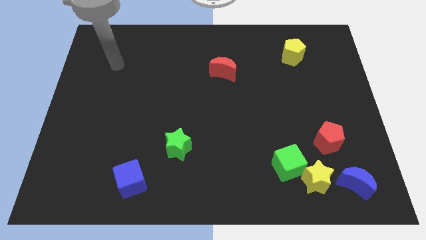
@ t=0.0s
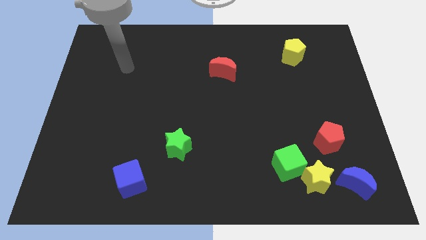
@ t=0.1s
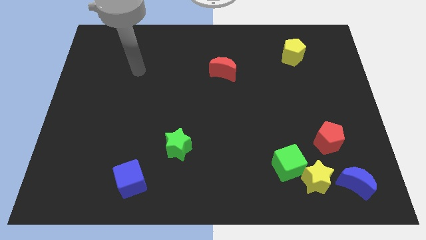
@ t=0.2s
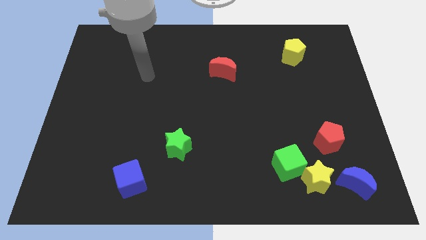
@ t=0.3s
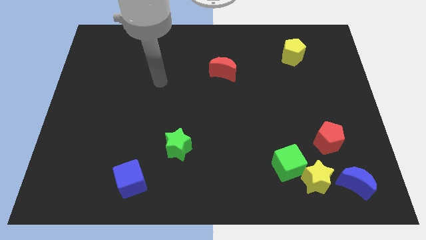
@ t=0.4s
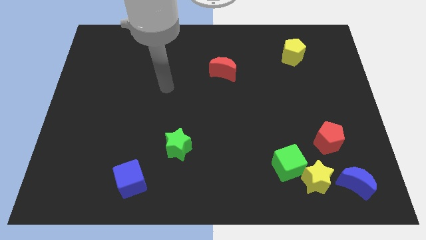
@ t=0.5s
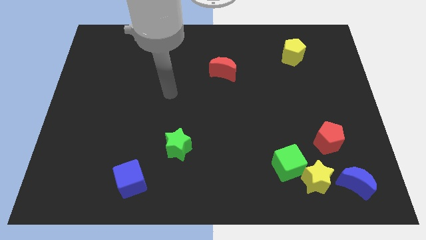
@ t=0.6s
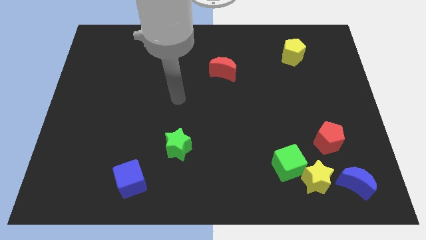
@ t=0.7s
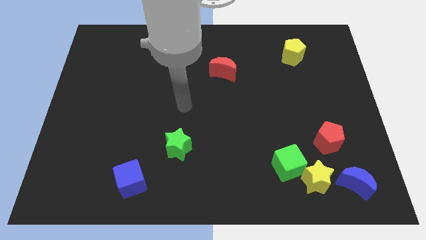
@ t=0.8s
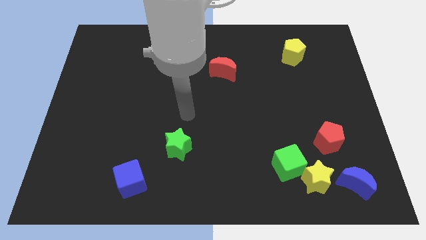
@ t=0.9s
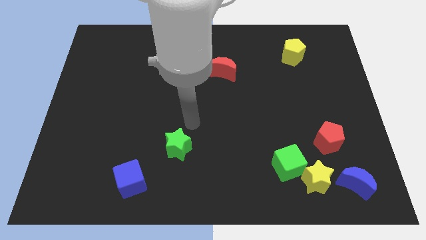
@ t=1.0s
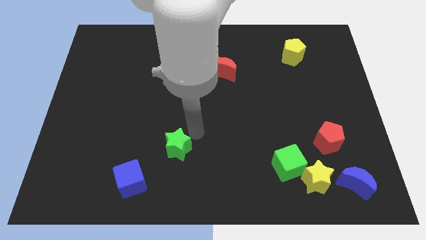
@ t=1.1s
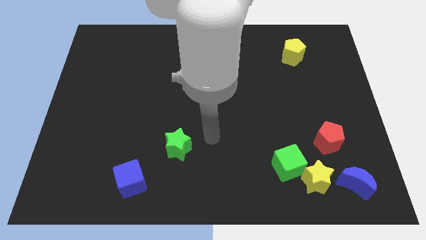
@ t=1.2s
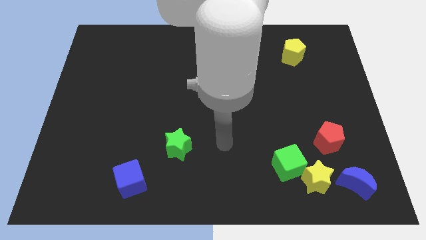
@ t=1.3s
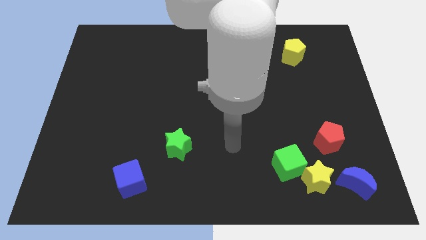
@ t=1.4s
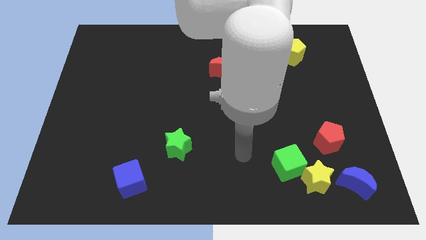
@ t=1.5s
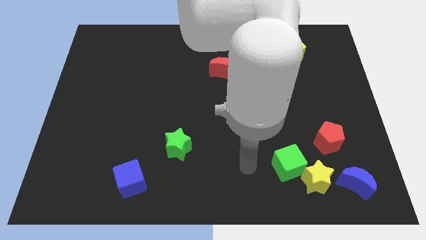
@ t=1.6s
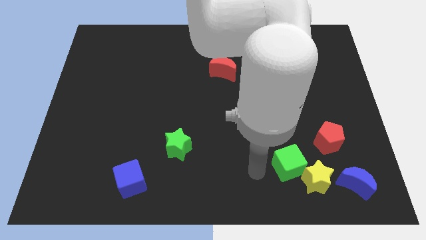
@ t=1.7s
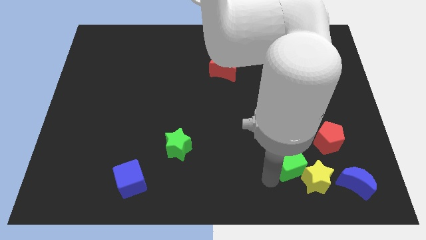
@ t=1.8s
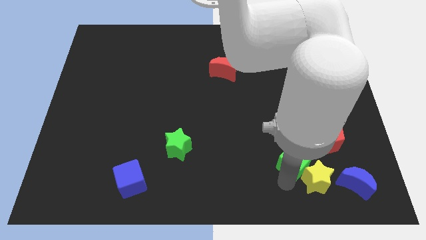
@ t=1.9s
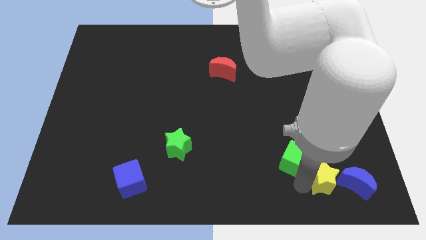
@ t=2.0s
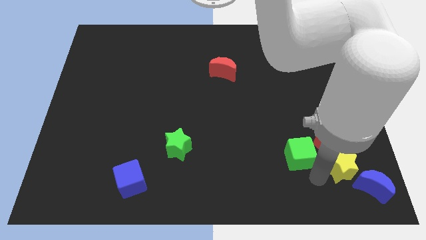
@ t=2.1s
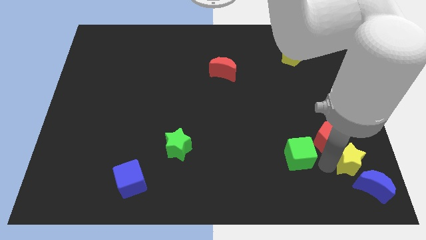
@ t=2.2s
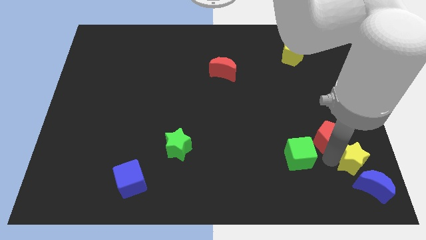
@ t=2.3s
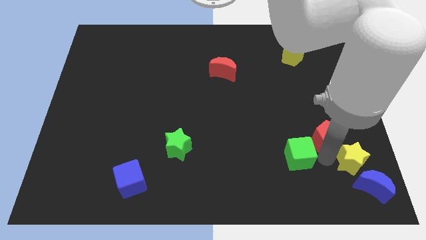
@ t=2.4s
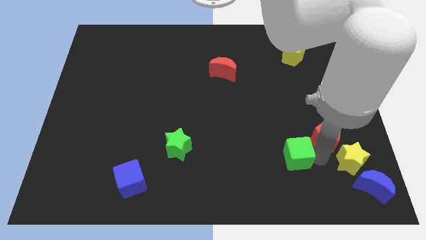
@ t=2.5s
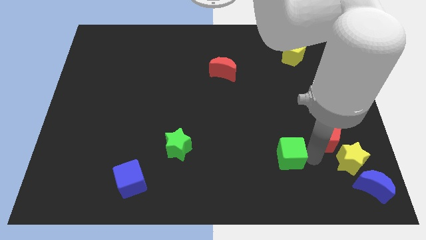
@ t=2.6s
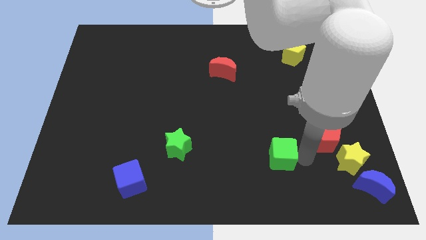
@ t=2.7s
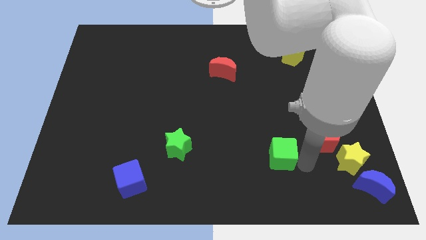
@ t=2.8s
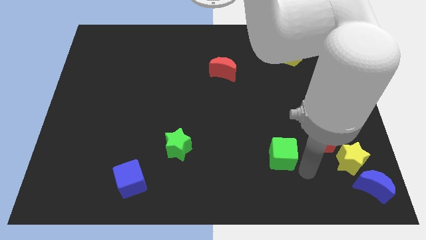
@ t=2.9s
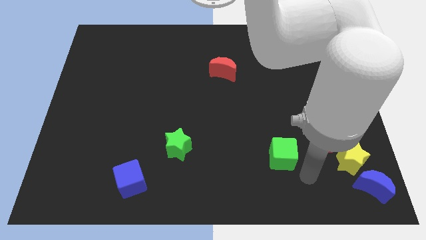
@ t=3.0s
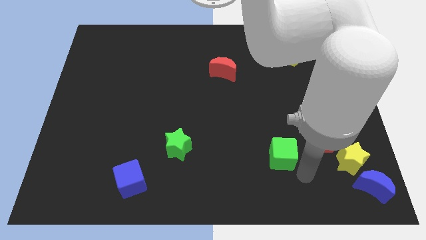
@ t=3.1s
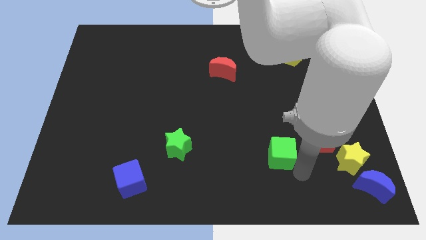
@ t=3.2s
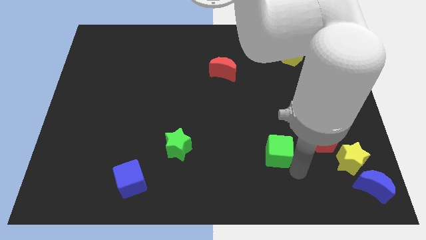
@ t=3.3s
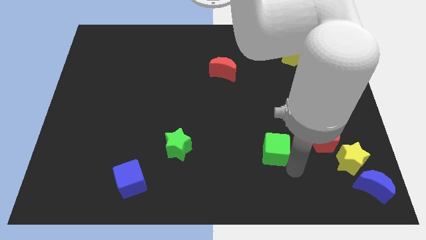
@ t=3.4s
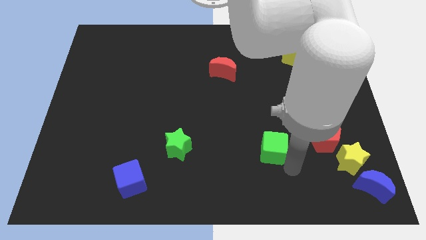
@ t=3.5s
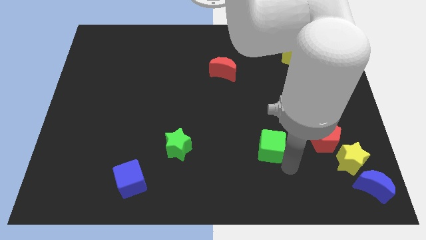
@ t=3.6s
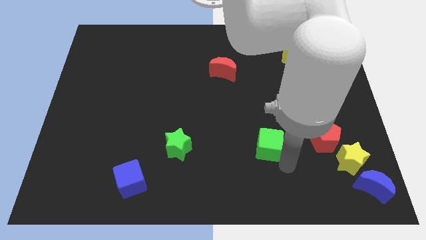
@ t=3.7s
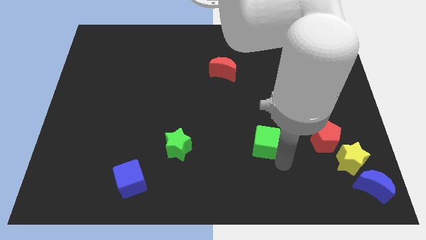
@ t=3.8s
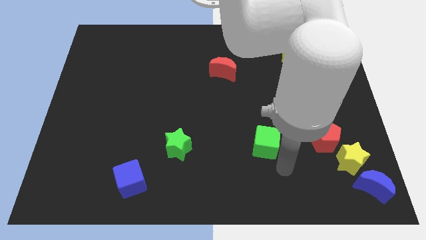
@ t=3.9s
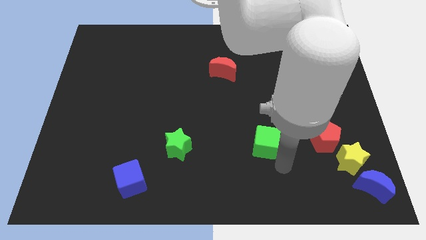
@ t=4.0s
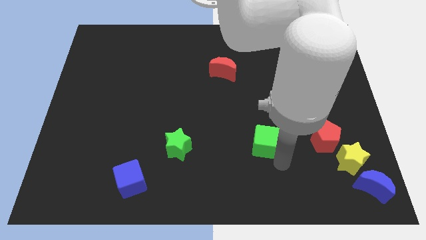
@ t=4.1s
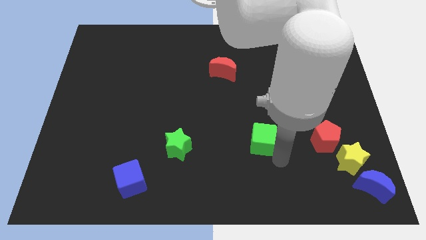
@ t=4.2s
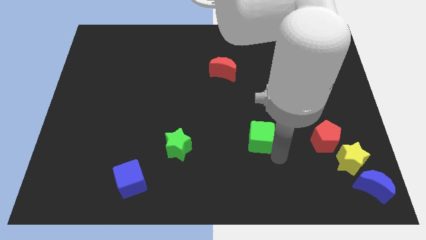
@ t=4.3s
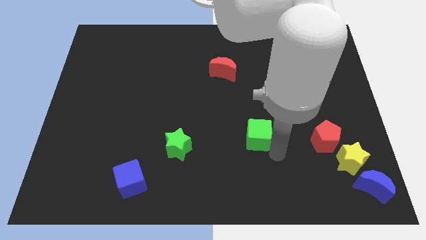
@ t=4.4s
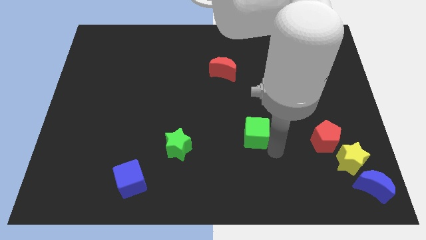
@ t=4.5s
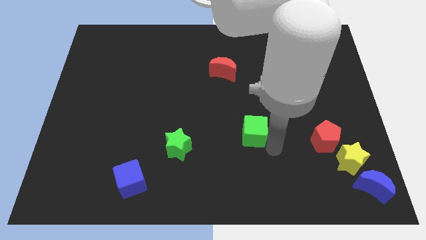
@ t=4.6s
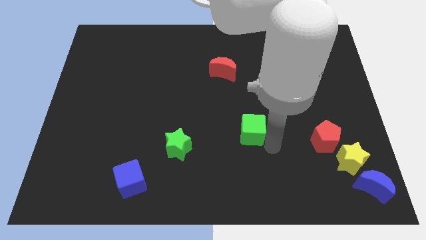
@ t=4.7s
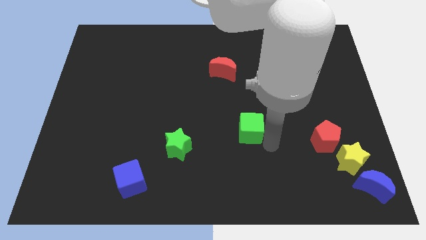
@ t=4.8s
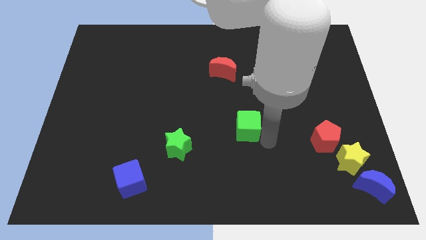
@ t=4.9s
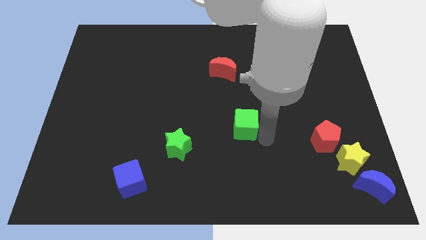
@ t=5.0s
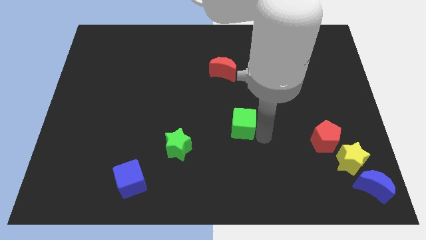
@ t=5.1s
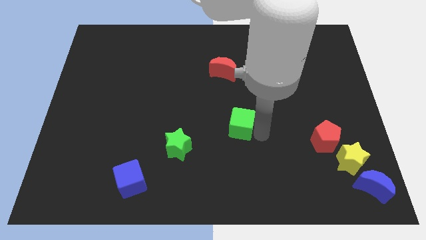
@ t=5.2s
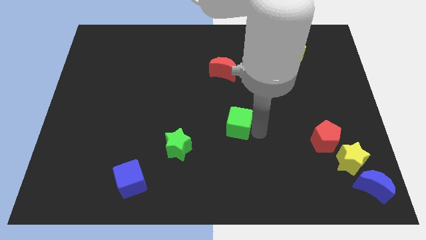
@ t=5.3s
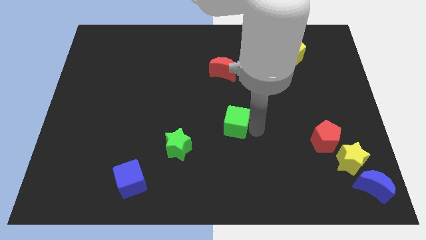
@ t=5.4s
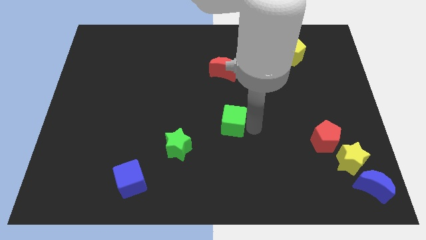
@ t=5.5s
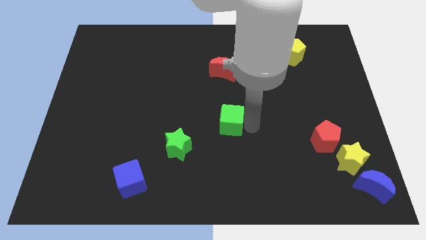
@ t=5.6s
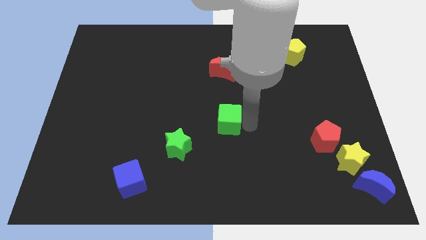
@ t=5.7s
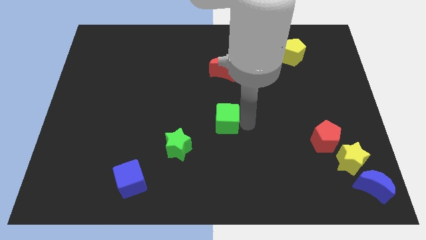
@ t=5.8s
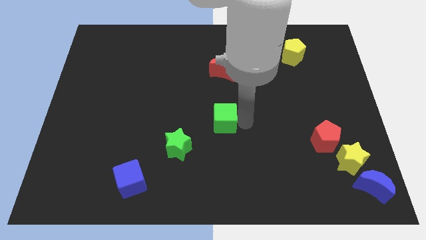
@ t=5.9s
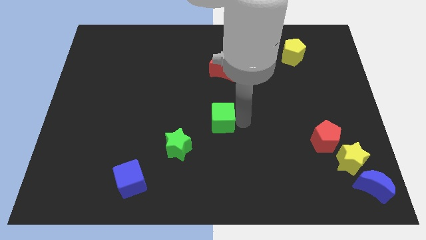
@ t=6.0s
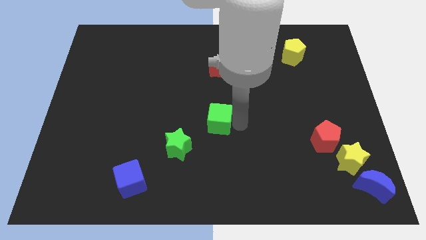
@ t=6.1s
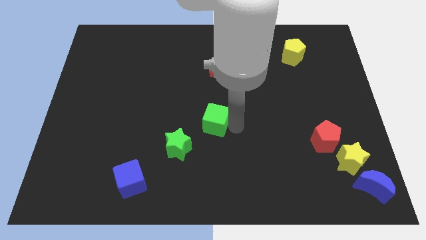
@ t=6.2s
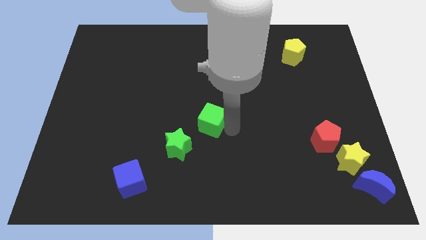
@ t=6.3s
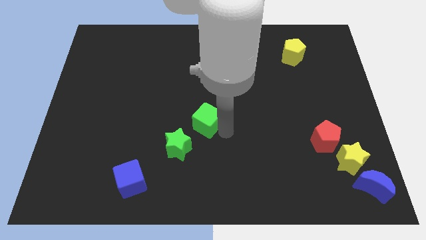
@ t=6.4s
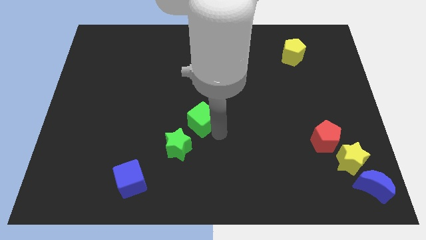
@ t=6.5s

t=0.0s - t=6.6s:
push the green cube up and then to the left

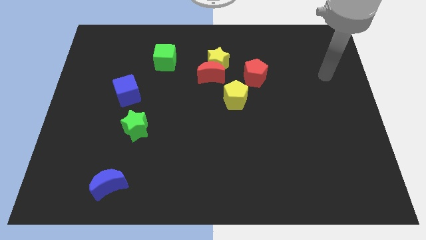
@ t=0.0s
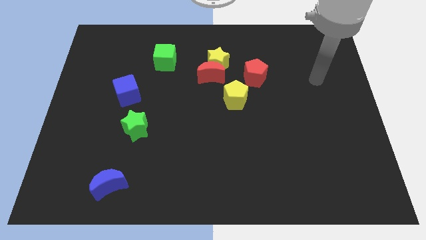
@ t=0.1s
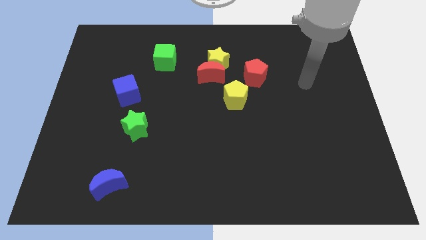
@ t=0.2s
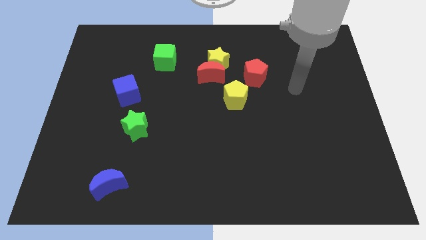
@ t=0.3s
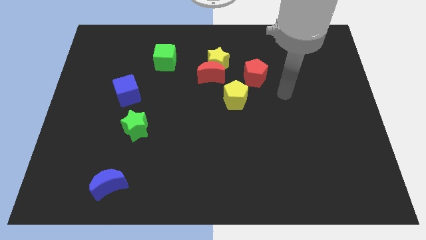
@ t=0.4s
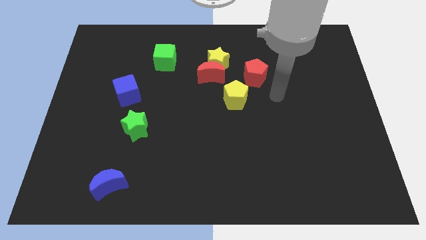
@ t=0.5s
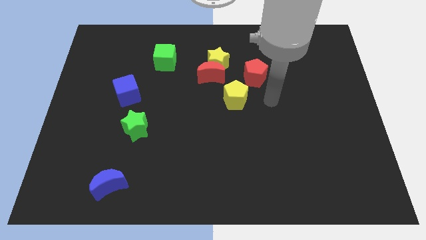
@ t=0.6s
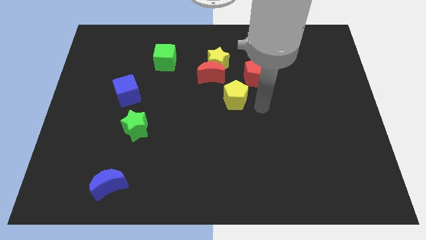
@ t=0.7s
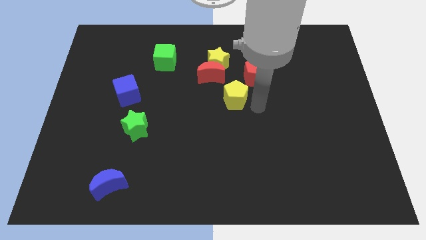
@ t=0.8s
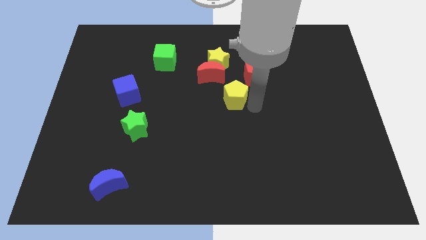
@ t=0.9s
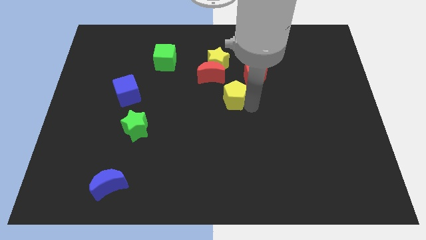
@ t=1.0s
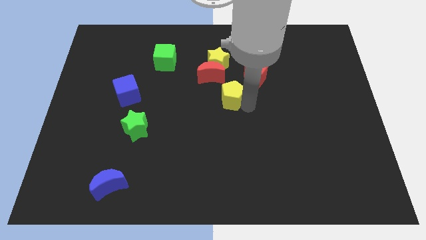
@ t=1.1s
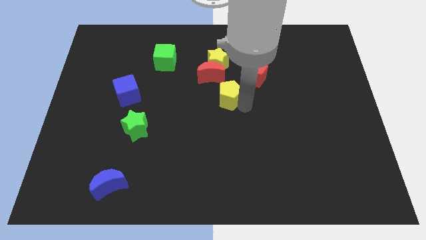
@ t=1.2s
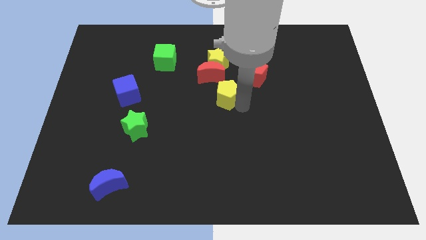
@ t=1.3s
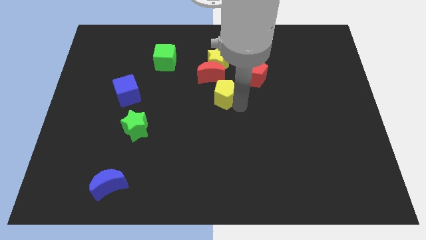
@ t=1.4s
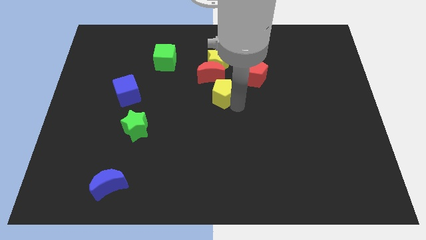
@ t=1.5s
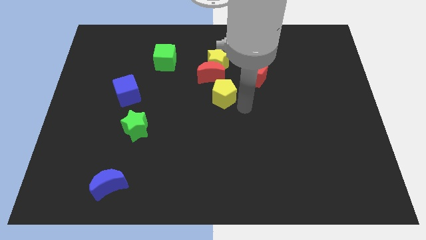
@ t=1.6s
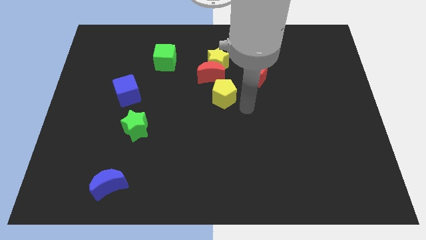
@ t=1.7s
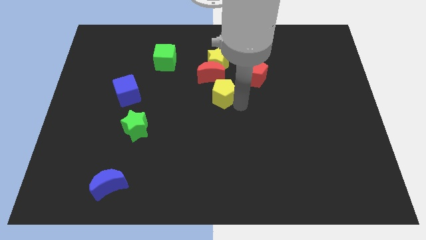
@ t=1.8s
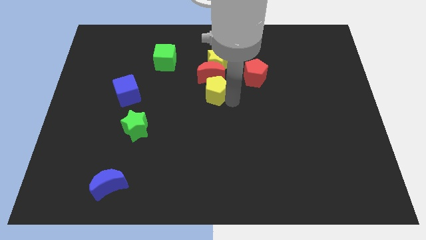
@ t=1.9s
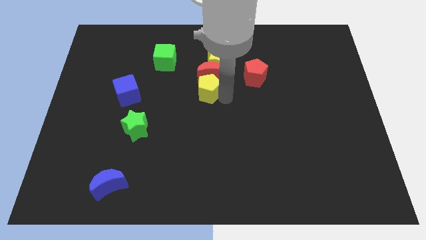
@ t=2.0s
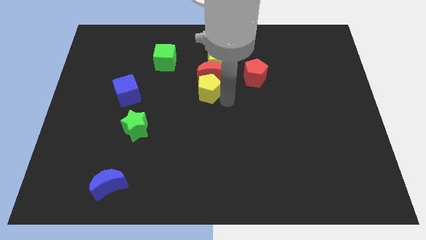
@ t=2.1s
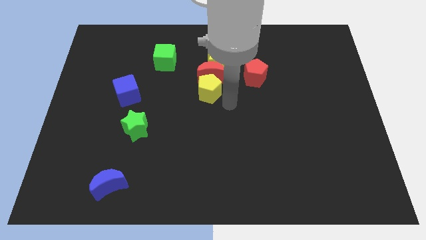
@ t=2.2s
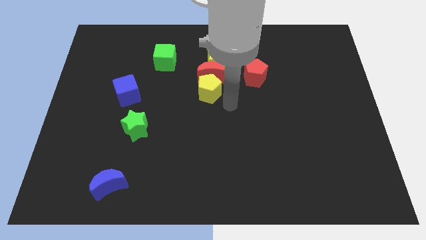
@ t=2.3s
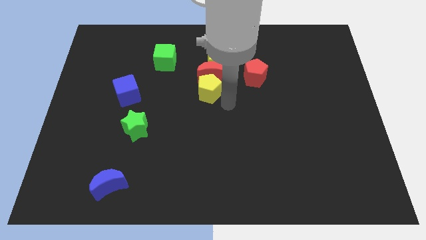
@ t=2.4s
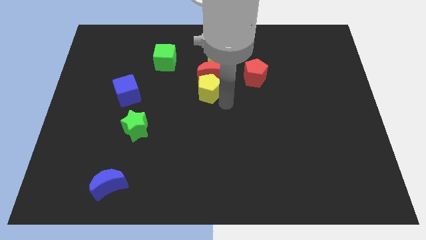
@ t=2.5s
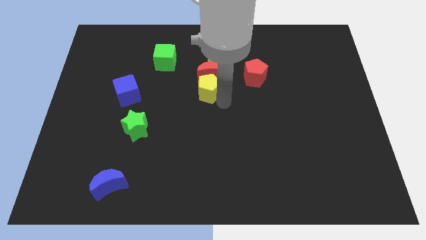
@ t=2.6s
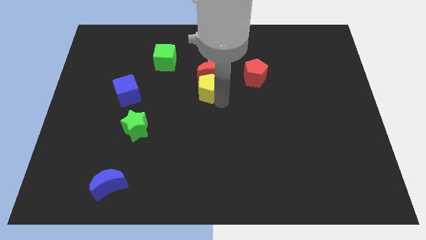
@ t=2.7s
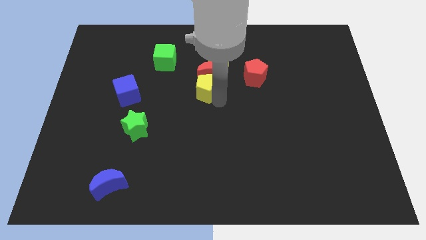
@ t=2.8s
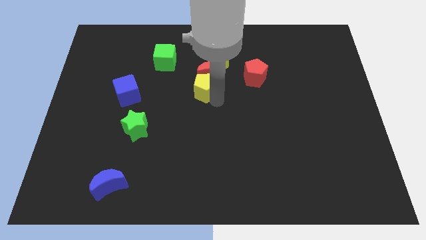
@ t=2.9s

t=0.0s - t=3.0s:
move the yellow pentagon a little upwards and then left
